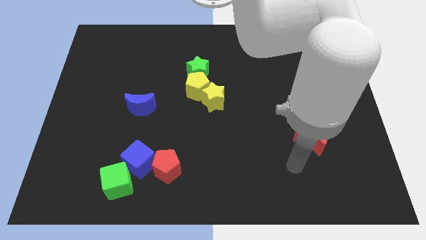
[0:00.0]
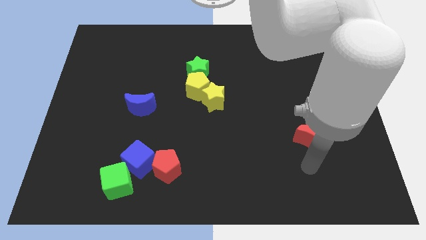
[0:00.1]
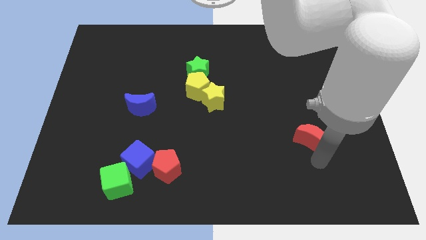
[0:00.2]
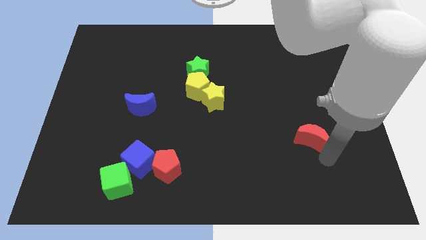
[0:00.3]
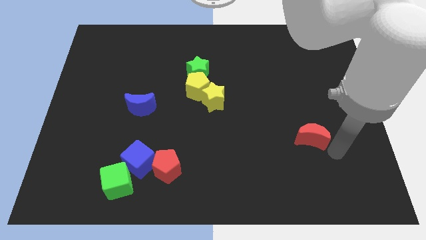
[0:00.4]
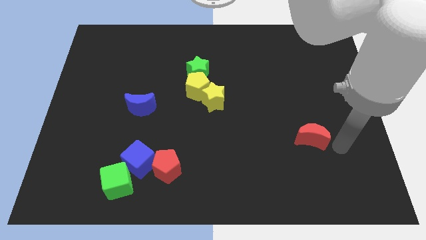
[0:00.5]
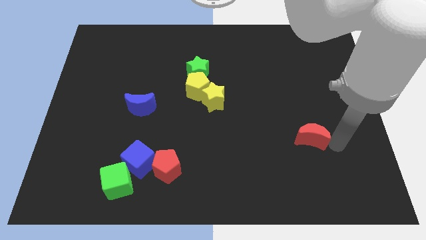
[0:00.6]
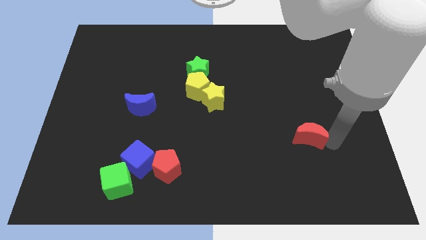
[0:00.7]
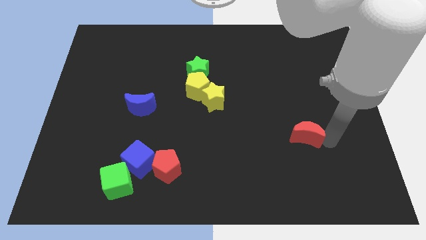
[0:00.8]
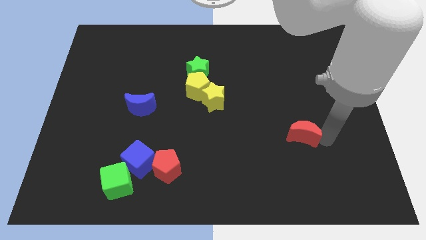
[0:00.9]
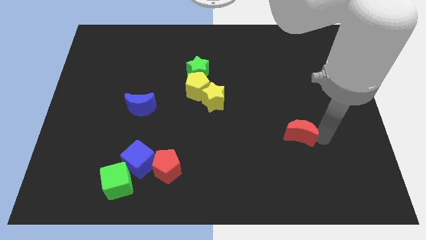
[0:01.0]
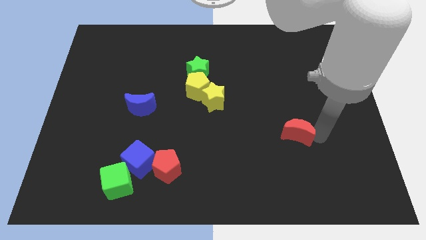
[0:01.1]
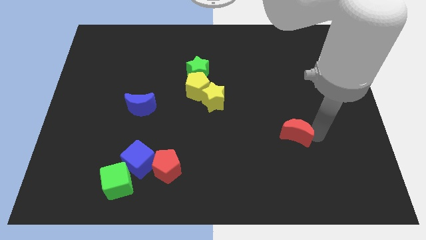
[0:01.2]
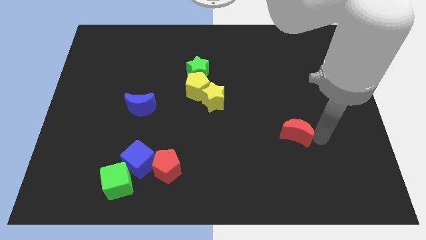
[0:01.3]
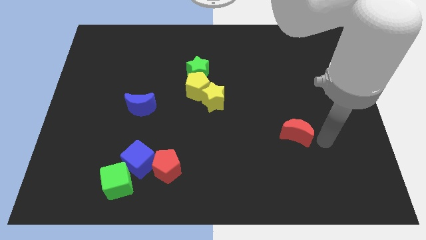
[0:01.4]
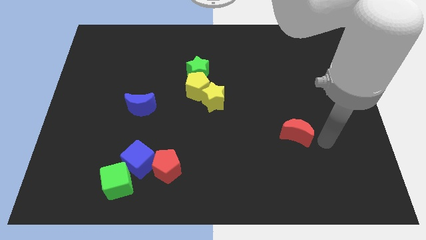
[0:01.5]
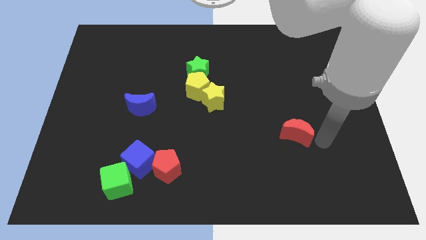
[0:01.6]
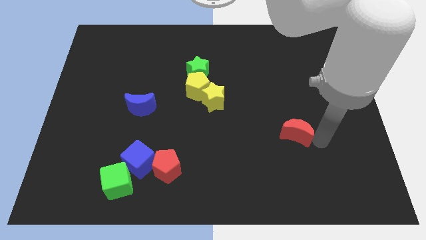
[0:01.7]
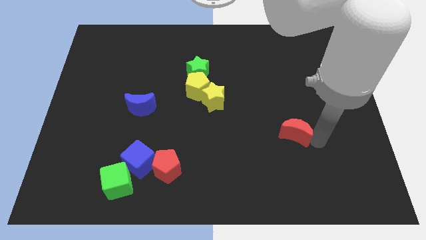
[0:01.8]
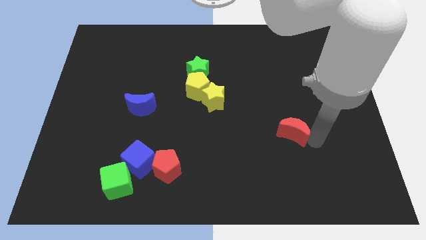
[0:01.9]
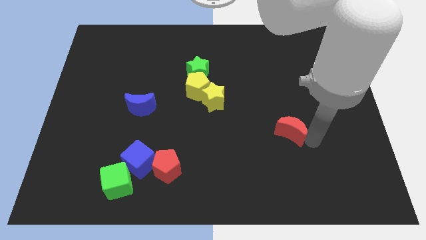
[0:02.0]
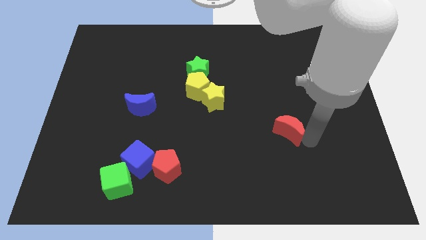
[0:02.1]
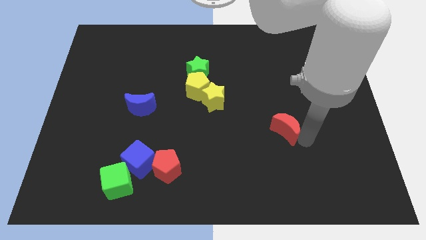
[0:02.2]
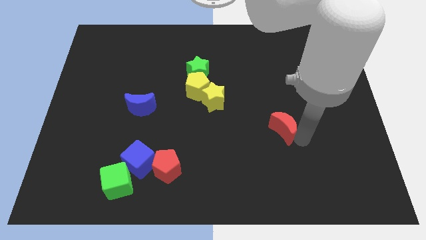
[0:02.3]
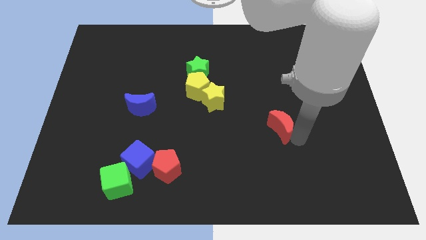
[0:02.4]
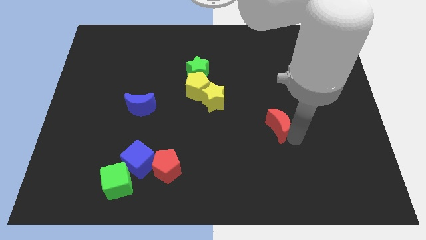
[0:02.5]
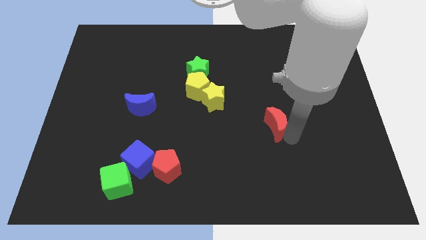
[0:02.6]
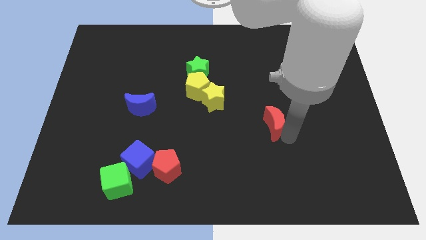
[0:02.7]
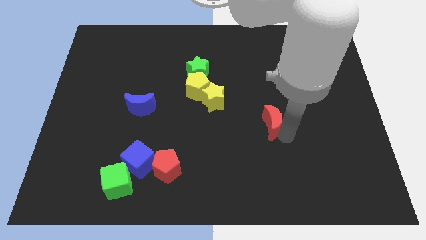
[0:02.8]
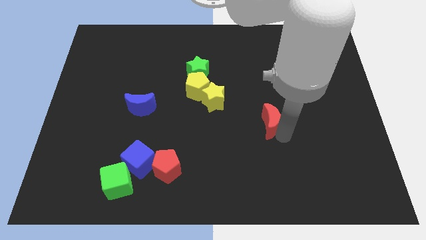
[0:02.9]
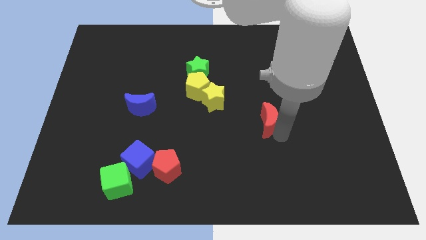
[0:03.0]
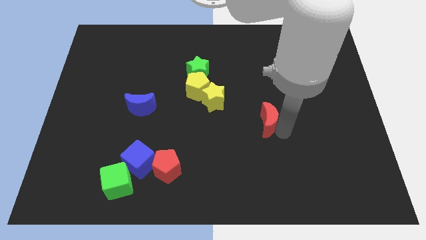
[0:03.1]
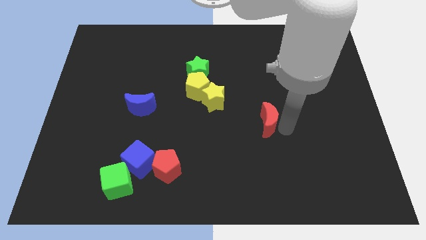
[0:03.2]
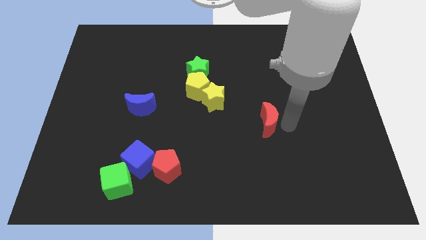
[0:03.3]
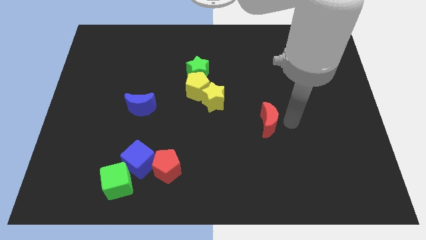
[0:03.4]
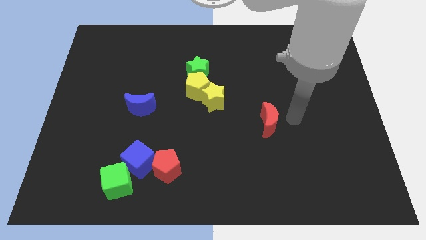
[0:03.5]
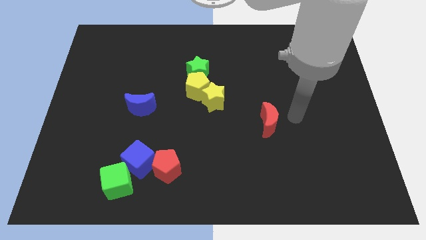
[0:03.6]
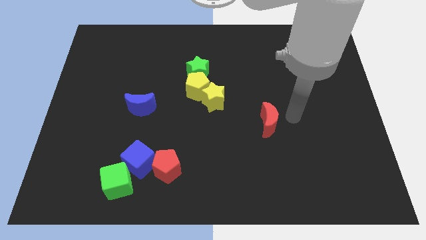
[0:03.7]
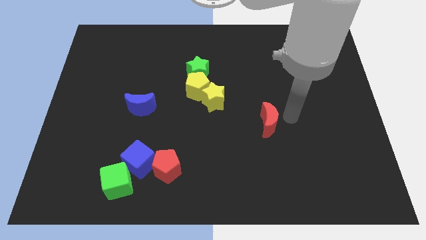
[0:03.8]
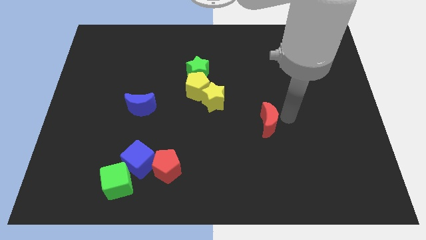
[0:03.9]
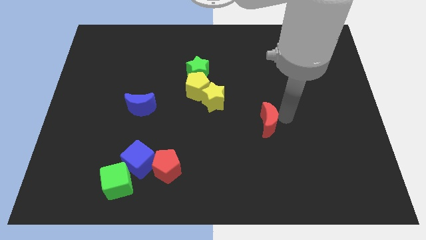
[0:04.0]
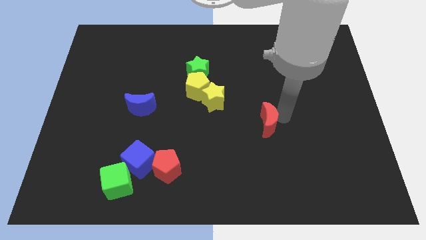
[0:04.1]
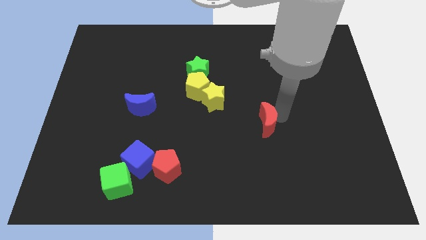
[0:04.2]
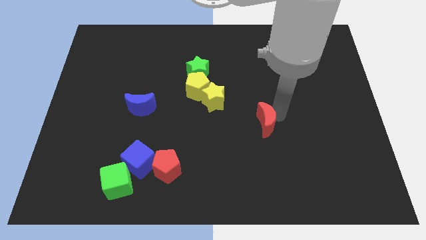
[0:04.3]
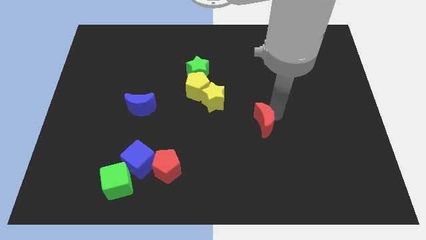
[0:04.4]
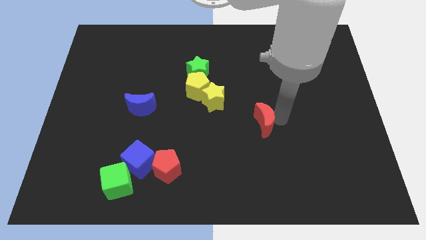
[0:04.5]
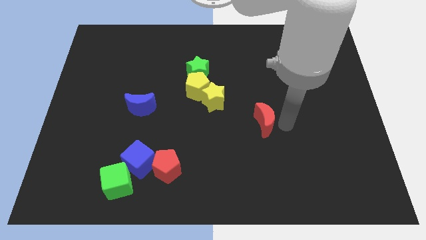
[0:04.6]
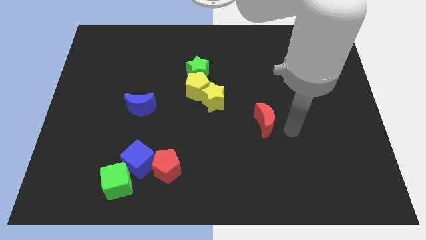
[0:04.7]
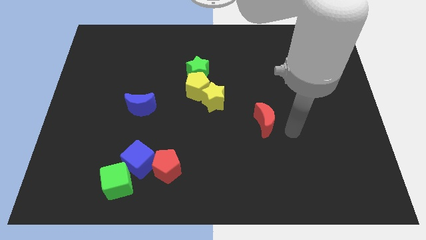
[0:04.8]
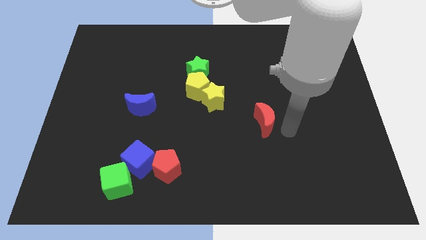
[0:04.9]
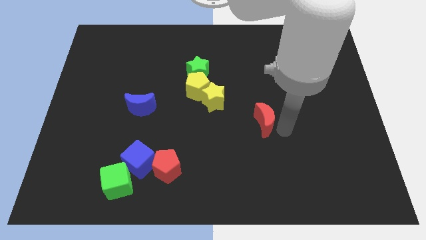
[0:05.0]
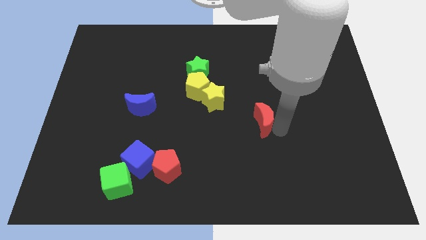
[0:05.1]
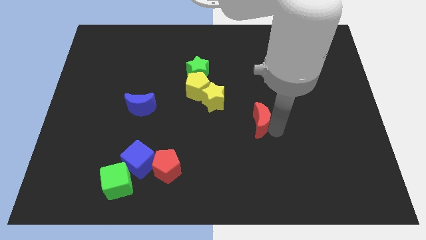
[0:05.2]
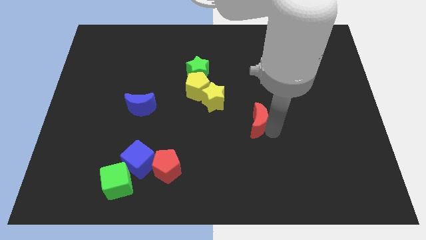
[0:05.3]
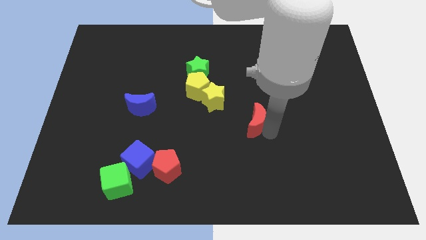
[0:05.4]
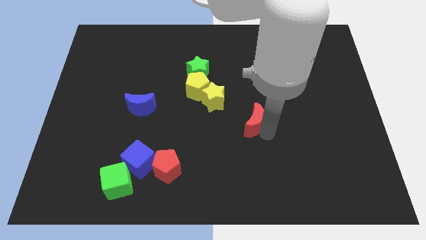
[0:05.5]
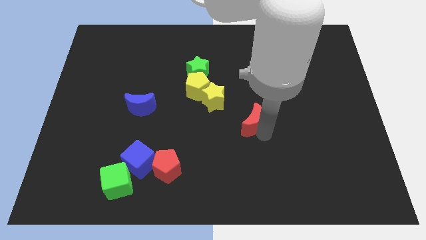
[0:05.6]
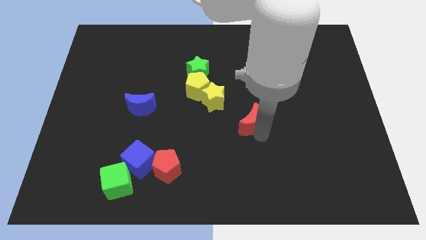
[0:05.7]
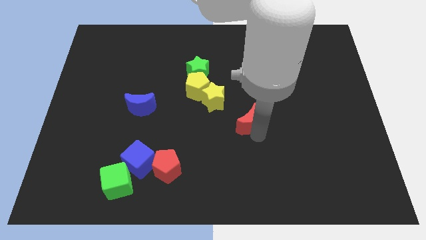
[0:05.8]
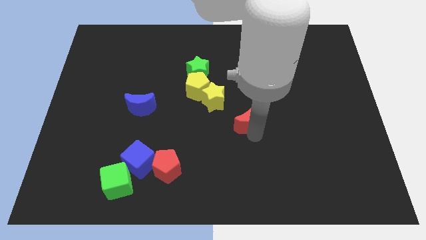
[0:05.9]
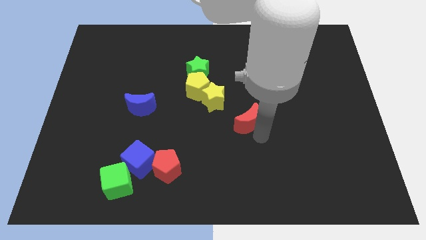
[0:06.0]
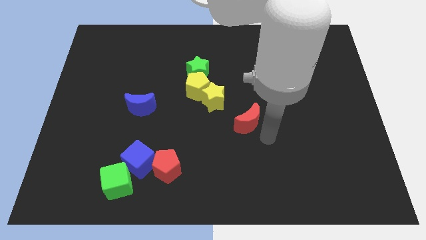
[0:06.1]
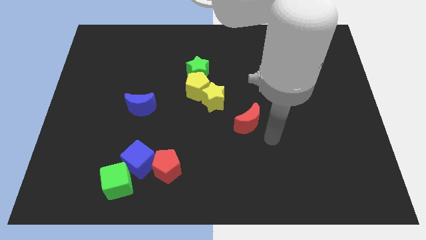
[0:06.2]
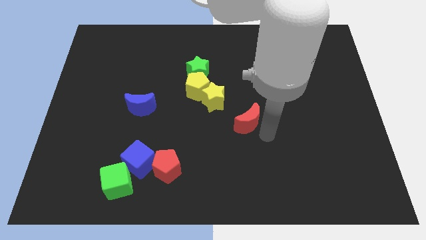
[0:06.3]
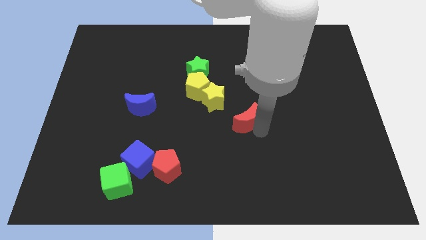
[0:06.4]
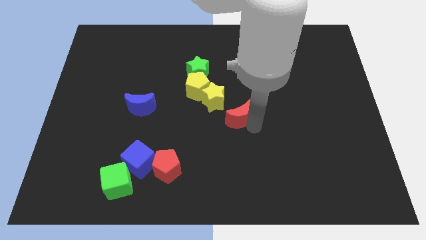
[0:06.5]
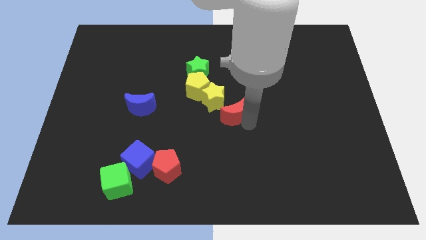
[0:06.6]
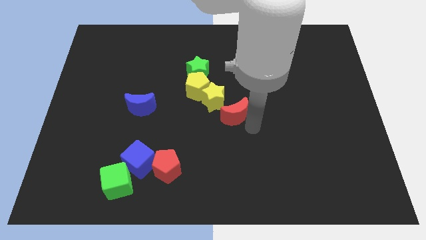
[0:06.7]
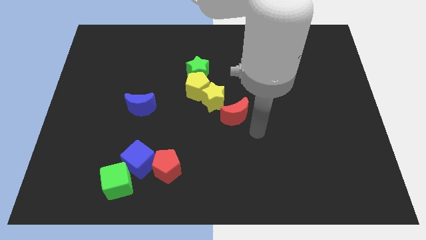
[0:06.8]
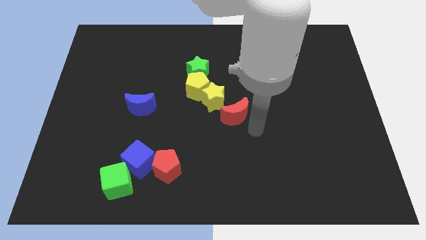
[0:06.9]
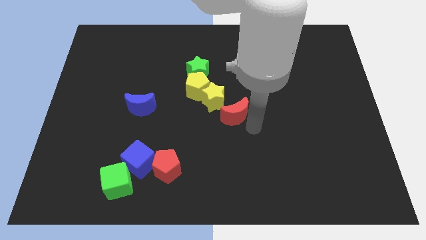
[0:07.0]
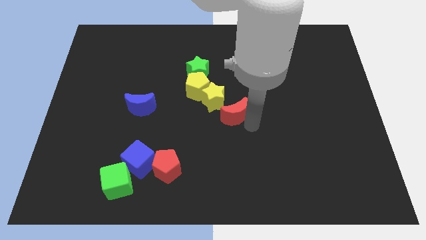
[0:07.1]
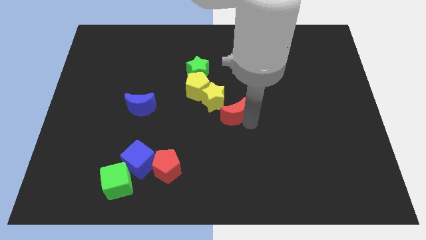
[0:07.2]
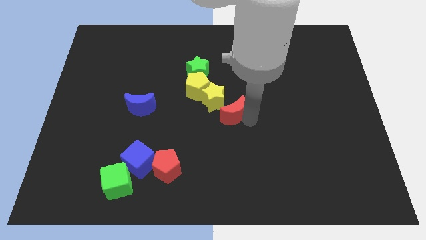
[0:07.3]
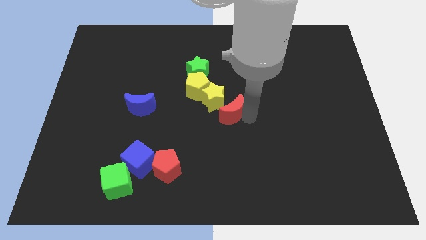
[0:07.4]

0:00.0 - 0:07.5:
push the red moon to the yellow star

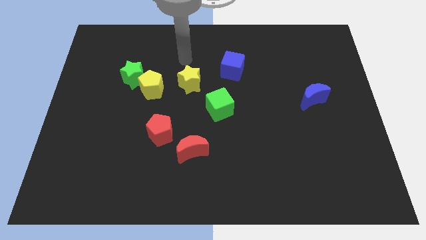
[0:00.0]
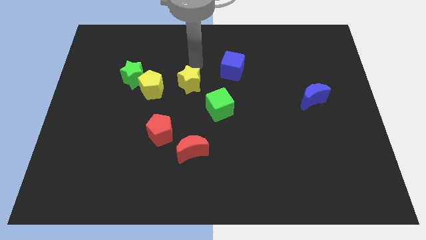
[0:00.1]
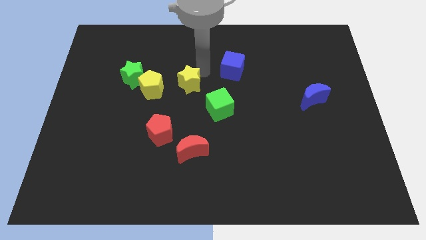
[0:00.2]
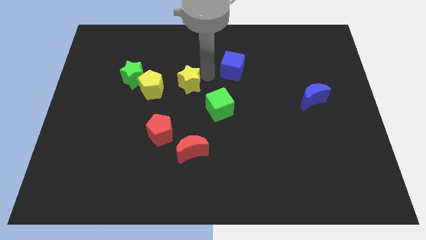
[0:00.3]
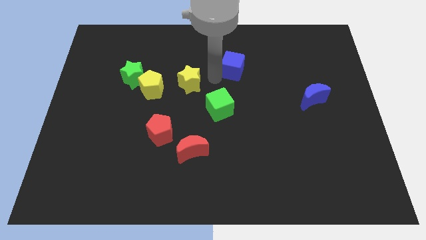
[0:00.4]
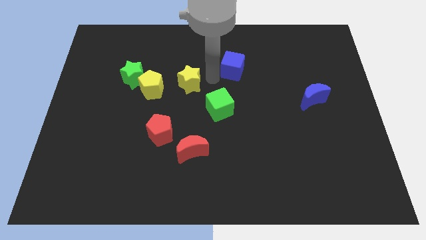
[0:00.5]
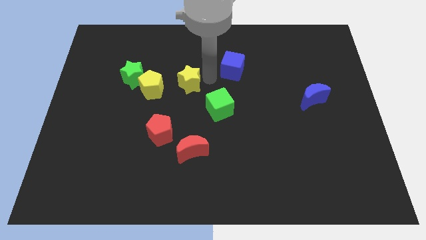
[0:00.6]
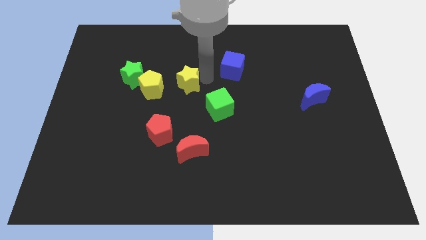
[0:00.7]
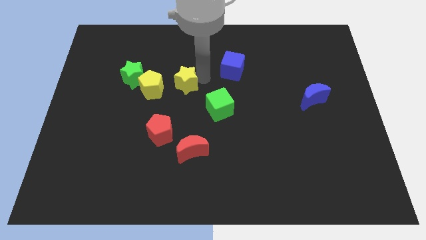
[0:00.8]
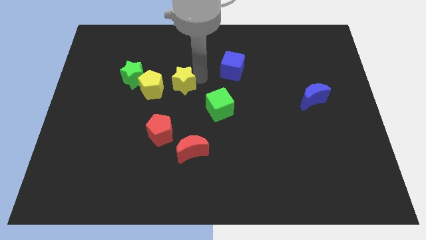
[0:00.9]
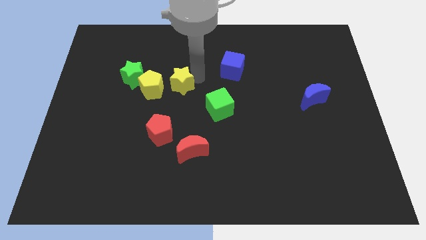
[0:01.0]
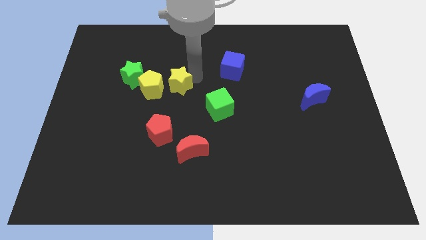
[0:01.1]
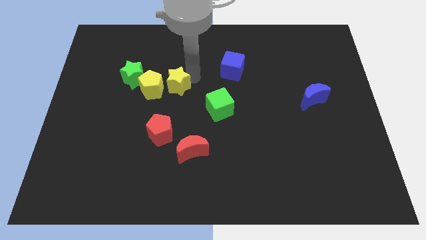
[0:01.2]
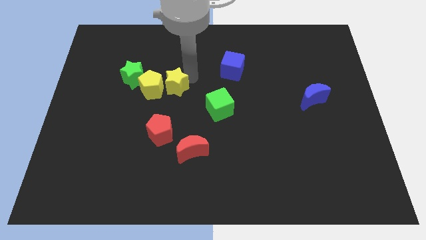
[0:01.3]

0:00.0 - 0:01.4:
push the yellow star close to the yellow pentagon
